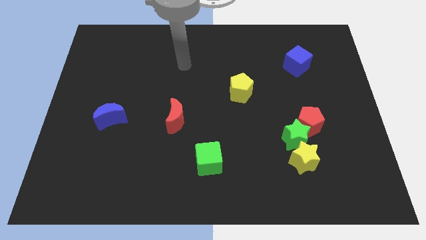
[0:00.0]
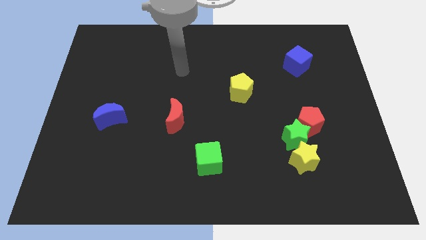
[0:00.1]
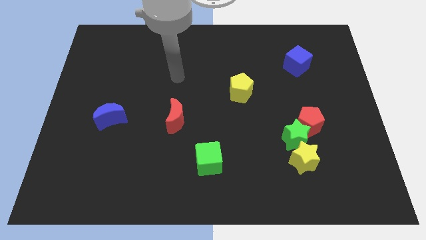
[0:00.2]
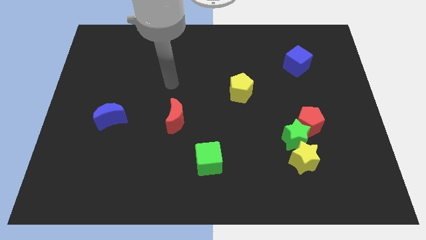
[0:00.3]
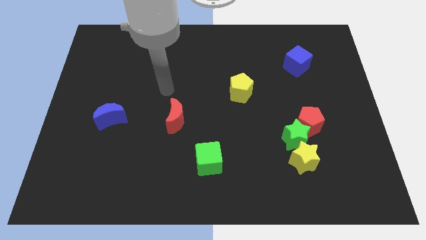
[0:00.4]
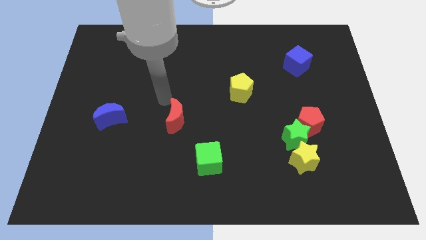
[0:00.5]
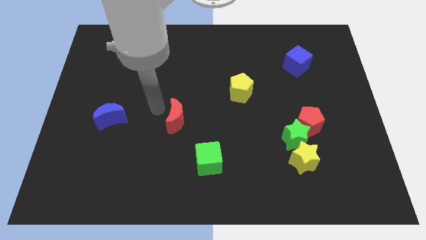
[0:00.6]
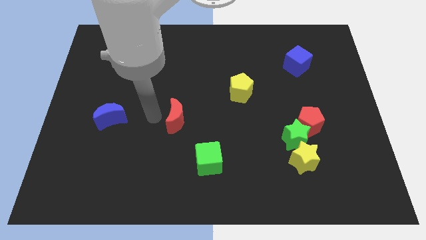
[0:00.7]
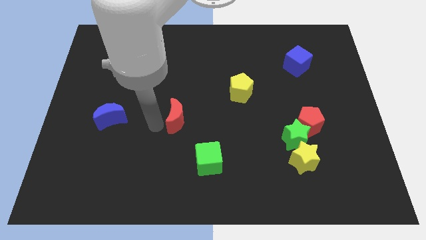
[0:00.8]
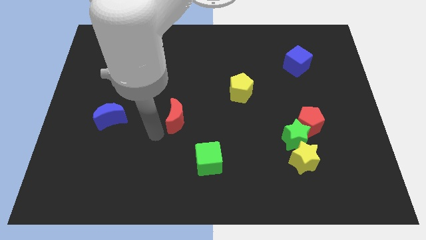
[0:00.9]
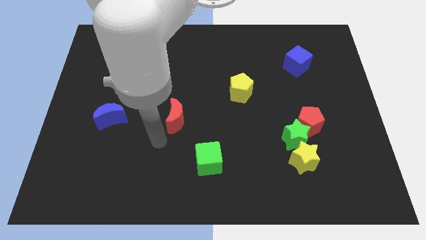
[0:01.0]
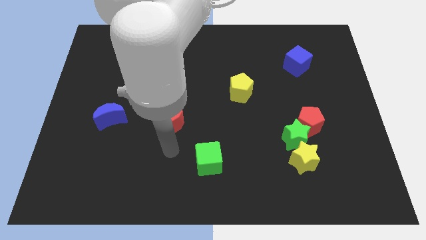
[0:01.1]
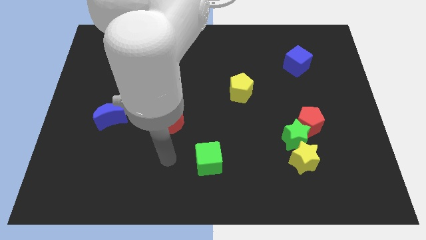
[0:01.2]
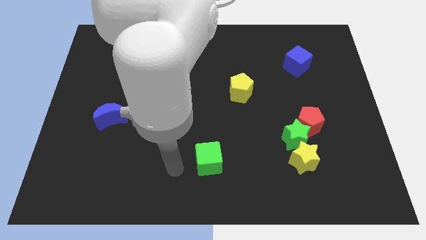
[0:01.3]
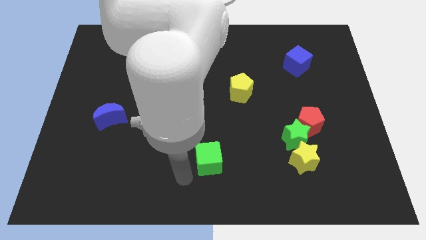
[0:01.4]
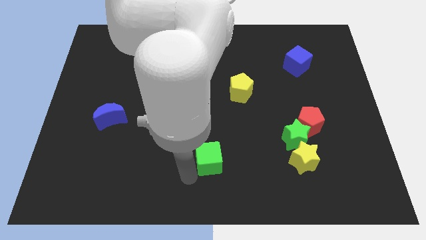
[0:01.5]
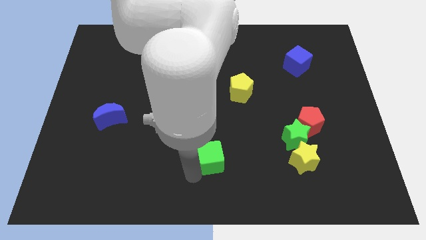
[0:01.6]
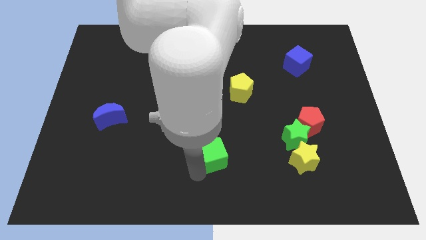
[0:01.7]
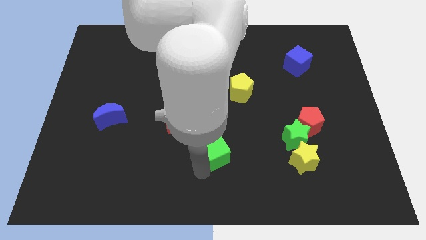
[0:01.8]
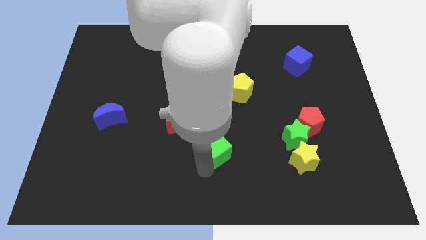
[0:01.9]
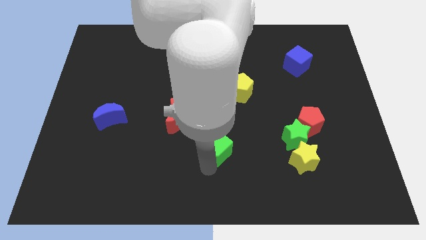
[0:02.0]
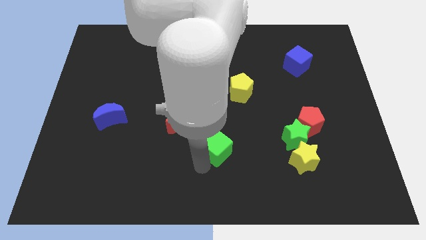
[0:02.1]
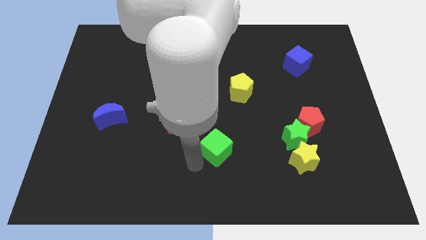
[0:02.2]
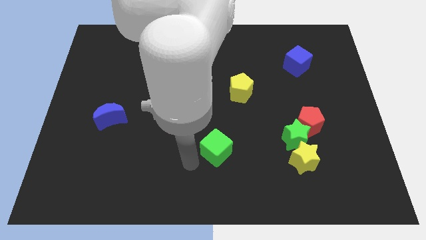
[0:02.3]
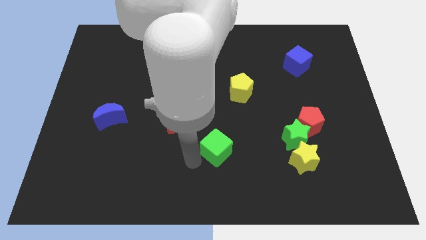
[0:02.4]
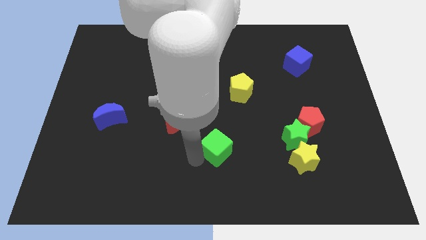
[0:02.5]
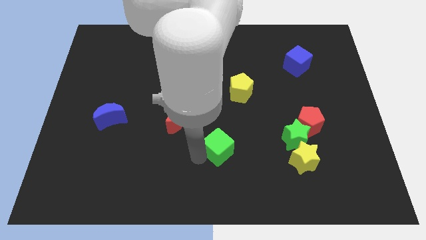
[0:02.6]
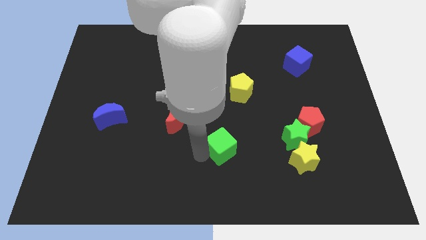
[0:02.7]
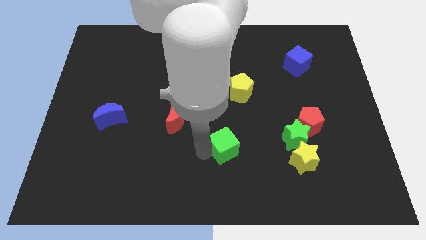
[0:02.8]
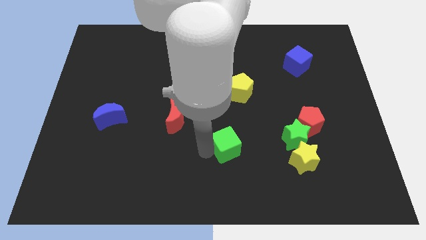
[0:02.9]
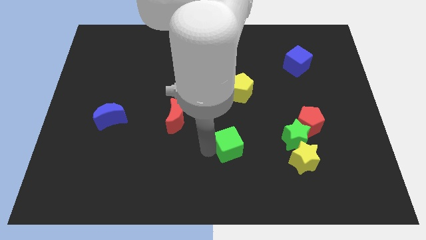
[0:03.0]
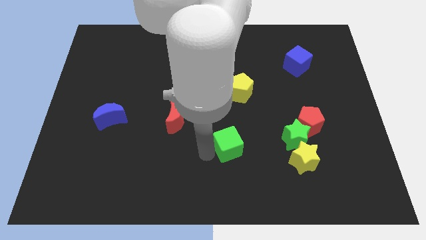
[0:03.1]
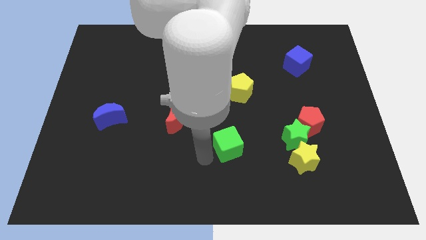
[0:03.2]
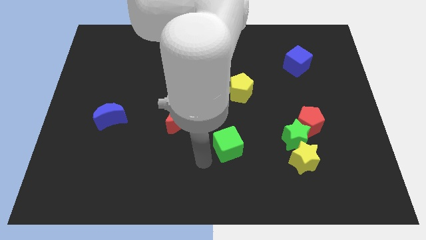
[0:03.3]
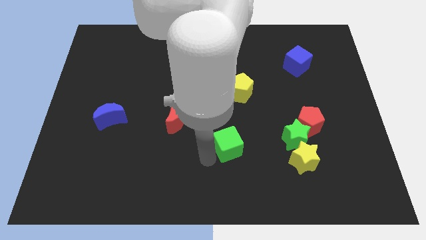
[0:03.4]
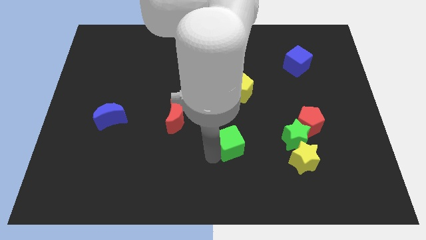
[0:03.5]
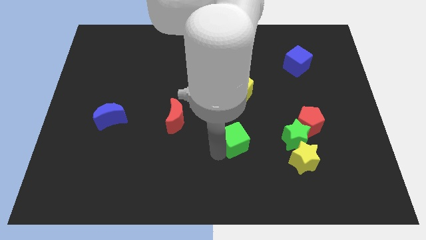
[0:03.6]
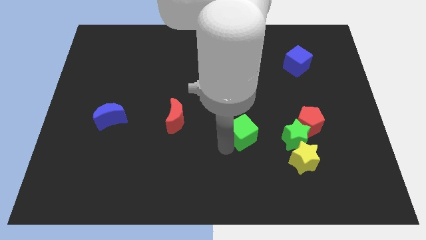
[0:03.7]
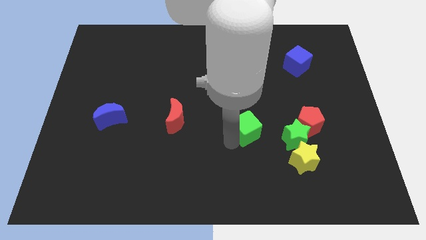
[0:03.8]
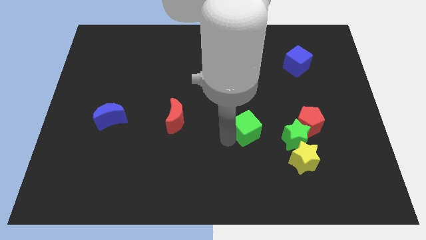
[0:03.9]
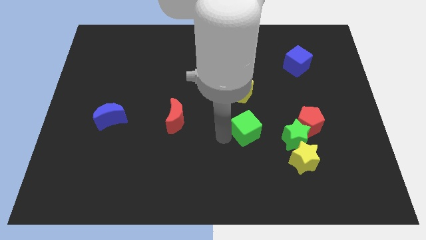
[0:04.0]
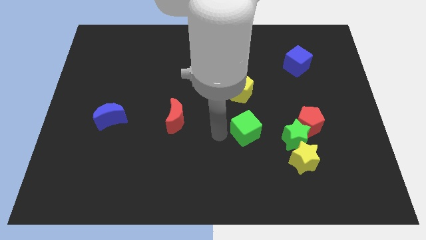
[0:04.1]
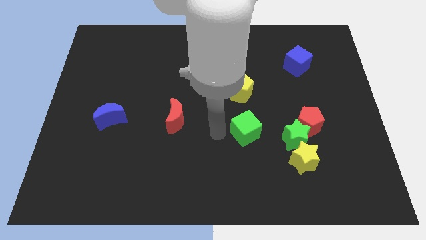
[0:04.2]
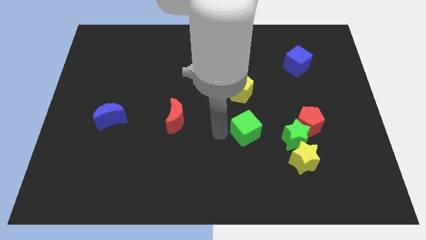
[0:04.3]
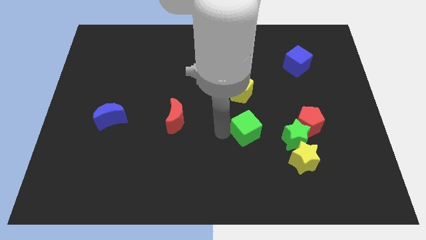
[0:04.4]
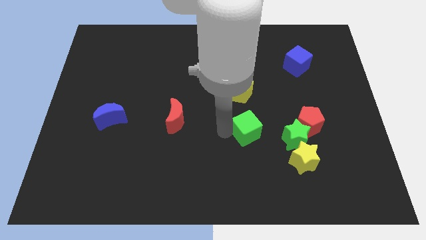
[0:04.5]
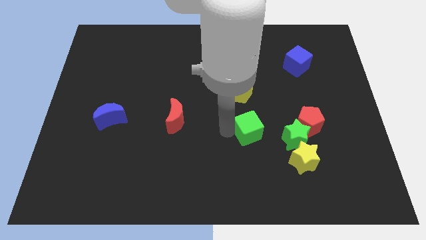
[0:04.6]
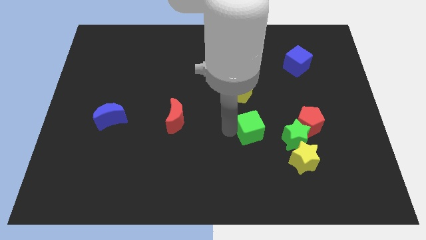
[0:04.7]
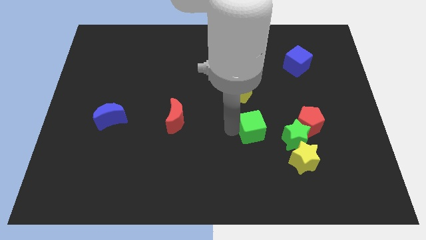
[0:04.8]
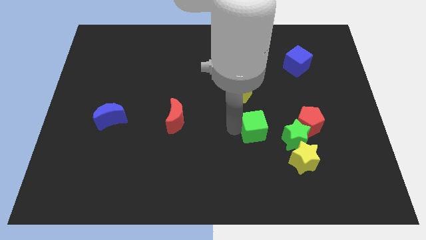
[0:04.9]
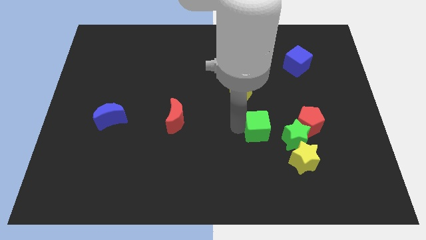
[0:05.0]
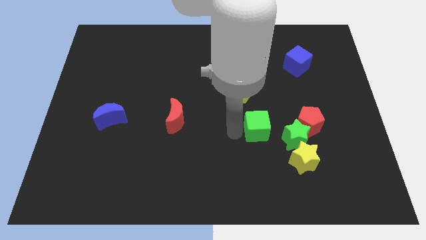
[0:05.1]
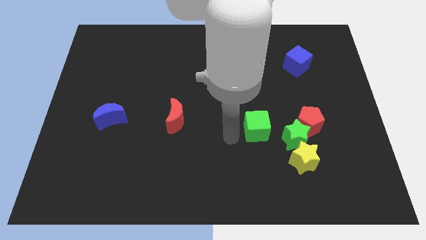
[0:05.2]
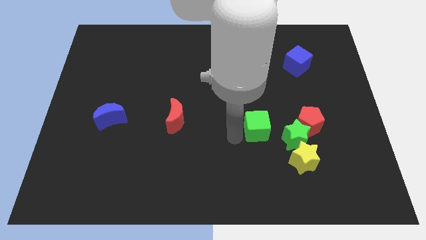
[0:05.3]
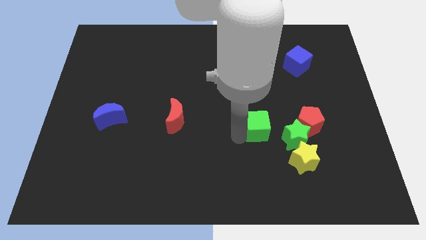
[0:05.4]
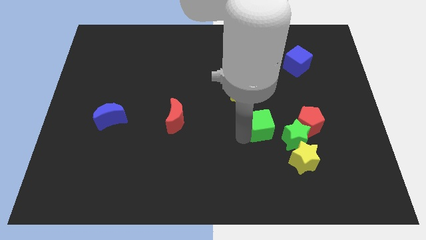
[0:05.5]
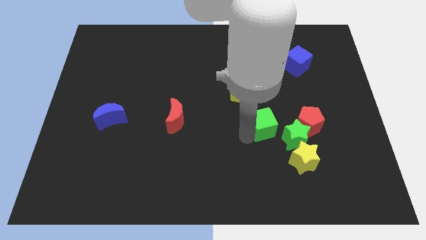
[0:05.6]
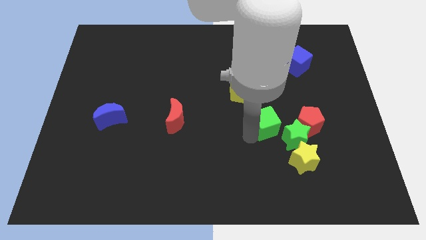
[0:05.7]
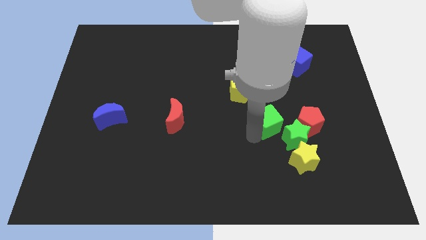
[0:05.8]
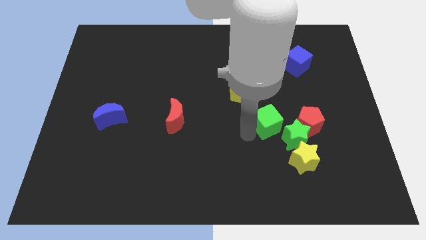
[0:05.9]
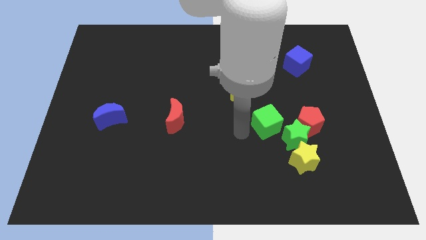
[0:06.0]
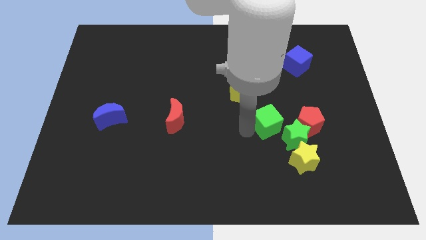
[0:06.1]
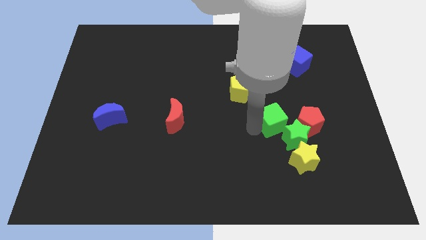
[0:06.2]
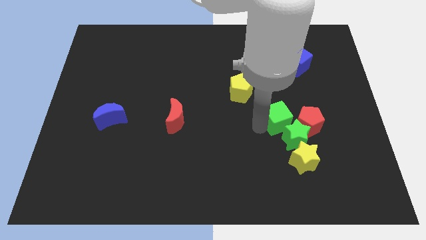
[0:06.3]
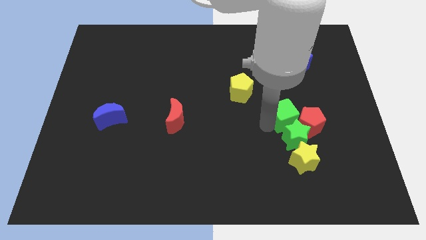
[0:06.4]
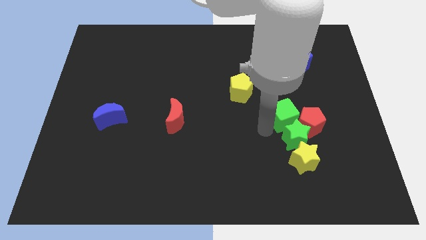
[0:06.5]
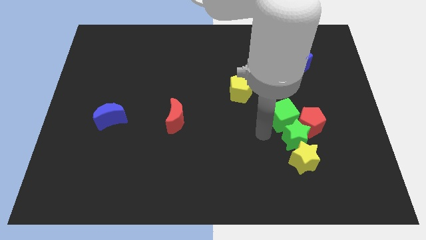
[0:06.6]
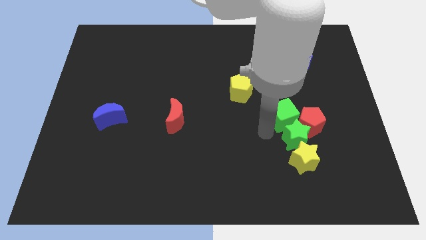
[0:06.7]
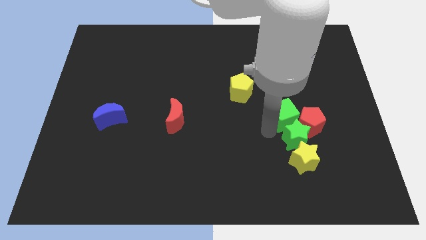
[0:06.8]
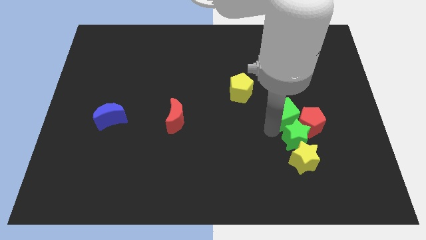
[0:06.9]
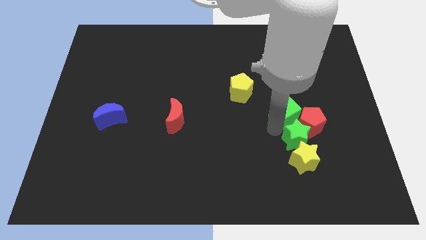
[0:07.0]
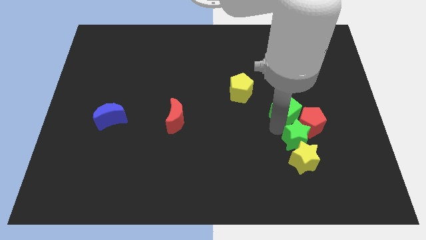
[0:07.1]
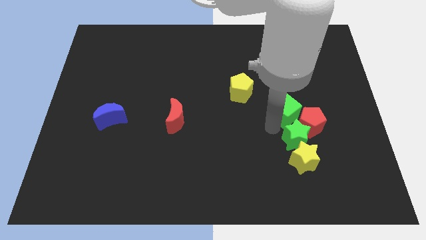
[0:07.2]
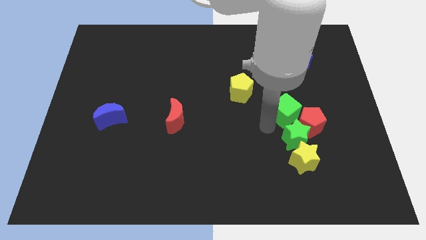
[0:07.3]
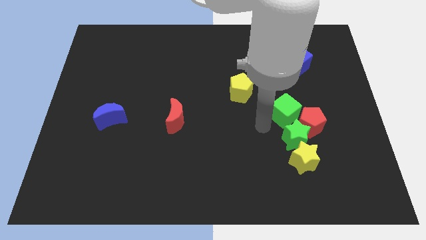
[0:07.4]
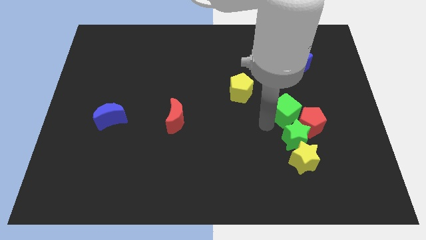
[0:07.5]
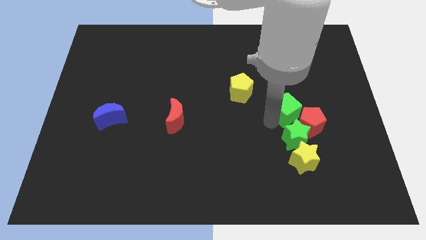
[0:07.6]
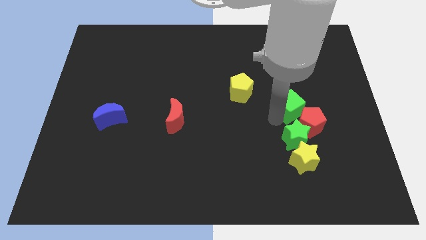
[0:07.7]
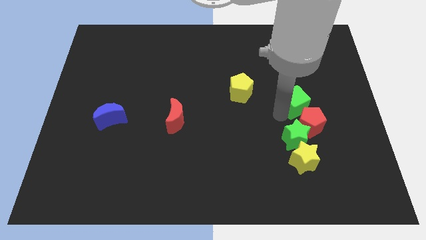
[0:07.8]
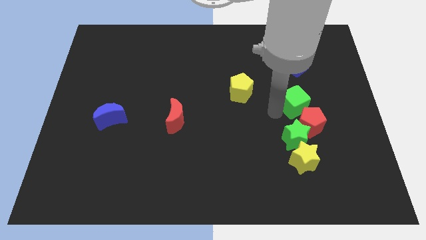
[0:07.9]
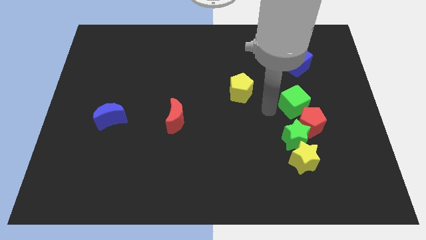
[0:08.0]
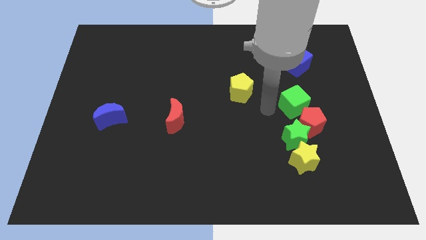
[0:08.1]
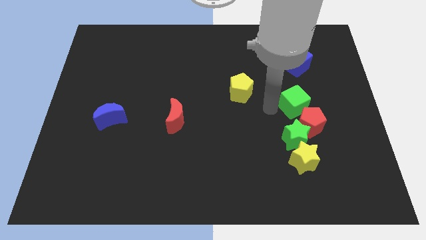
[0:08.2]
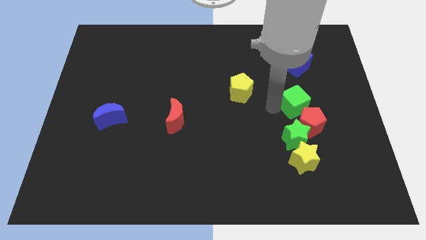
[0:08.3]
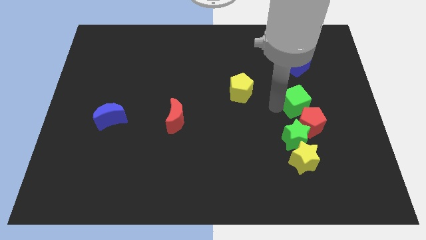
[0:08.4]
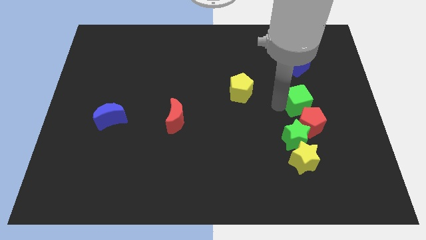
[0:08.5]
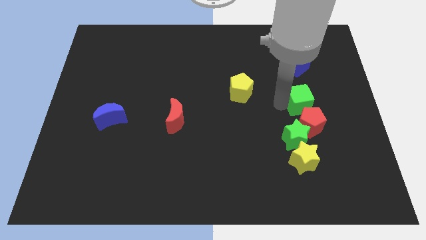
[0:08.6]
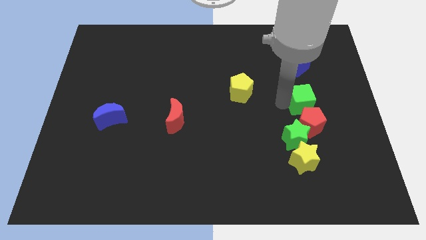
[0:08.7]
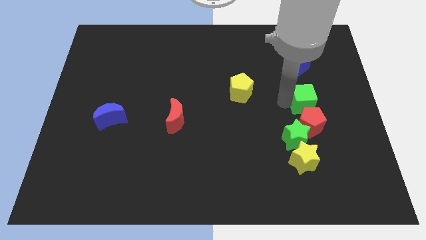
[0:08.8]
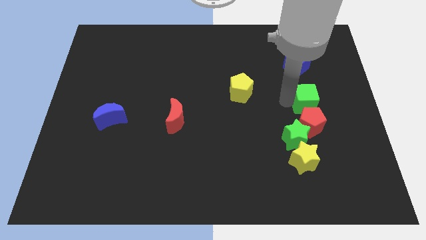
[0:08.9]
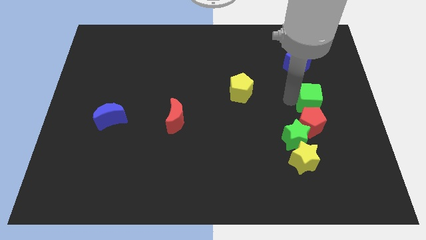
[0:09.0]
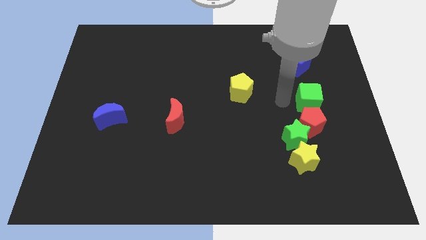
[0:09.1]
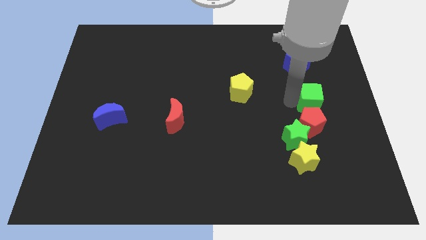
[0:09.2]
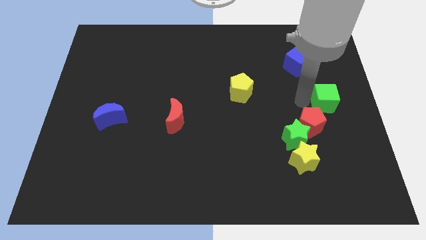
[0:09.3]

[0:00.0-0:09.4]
move the green cube to the right side of the board
